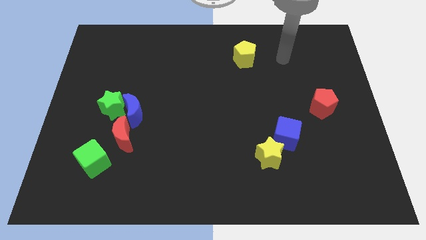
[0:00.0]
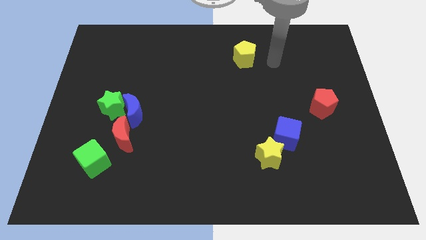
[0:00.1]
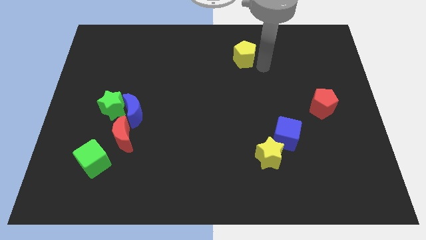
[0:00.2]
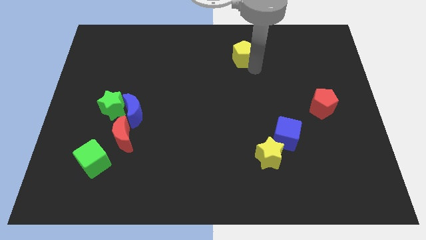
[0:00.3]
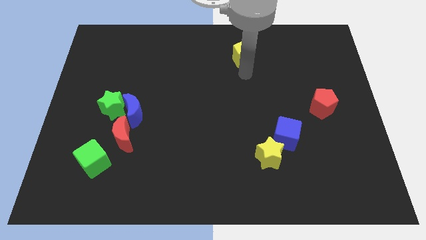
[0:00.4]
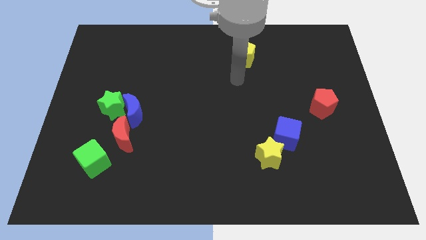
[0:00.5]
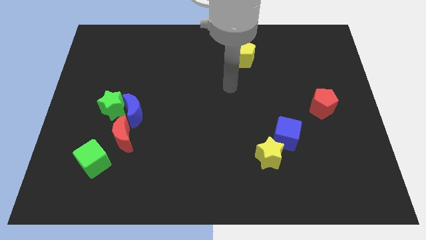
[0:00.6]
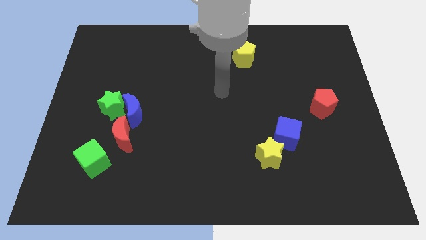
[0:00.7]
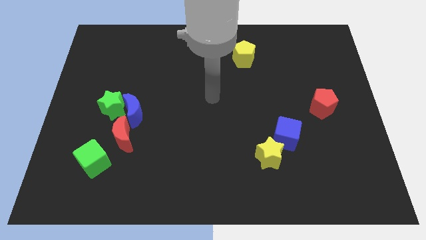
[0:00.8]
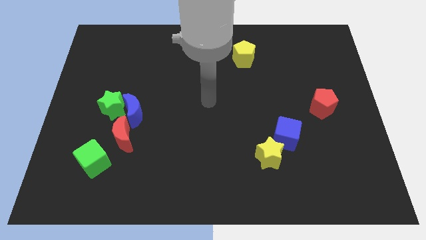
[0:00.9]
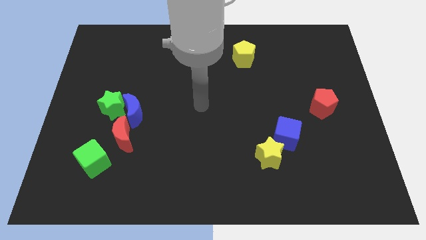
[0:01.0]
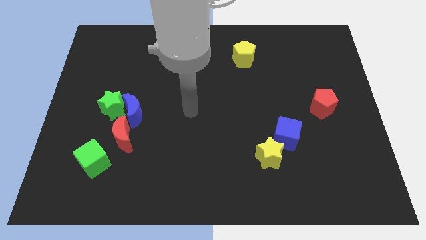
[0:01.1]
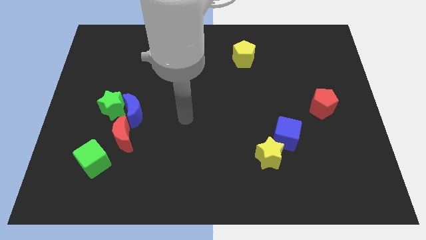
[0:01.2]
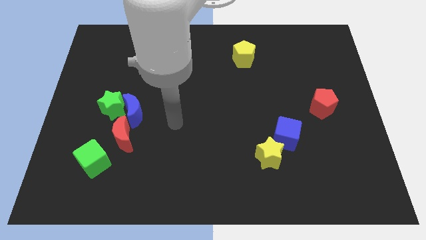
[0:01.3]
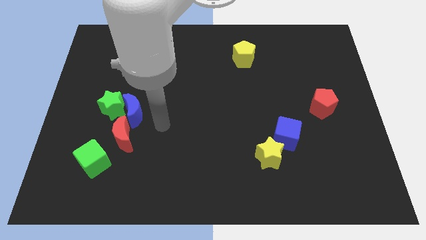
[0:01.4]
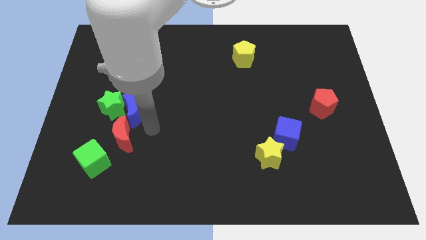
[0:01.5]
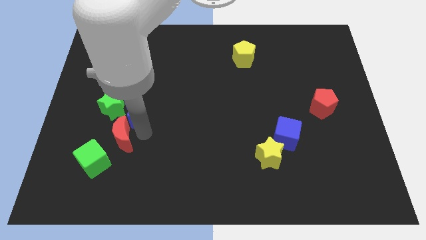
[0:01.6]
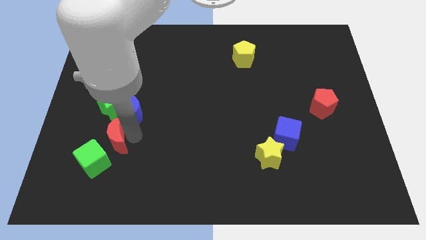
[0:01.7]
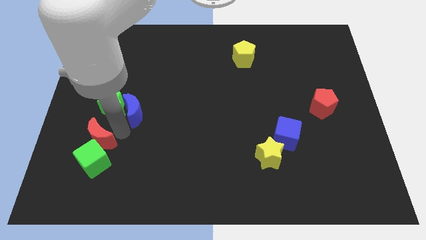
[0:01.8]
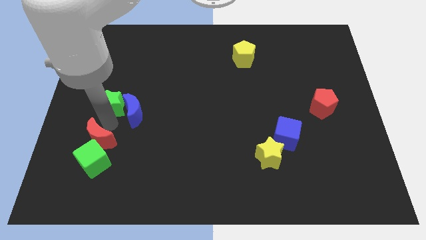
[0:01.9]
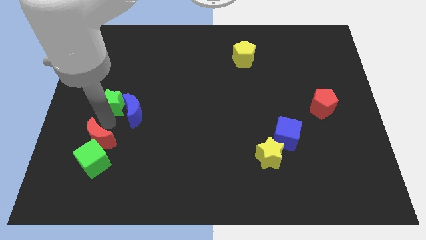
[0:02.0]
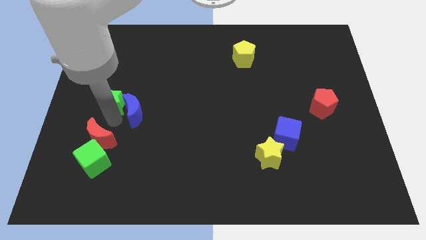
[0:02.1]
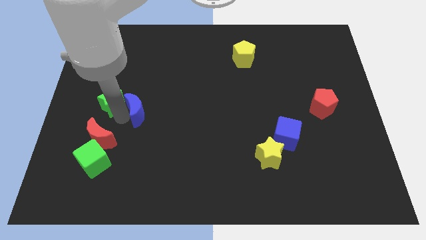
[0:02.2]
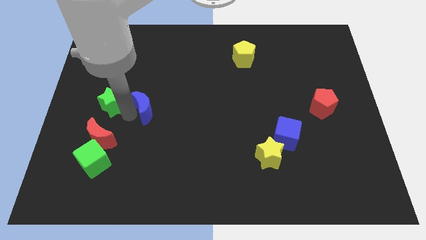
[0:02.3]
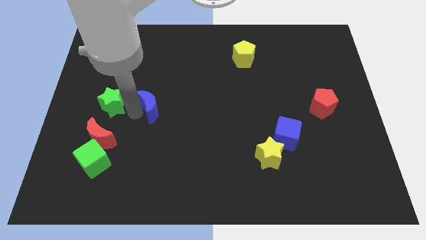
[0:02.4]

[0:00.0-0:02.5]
pull the blue moon apart from the green star and red moon

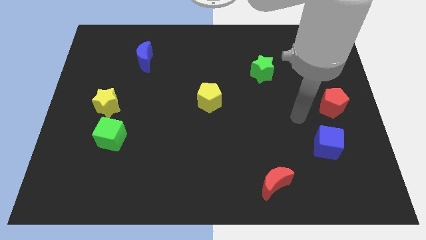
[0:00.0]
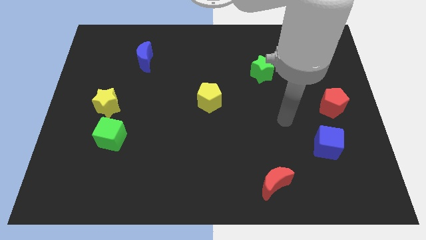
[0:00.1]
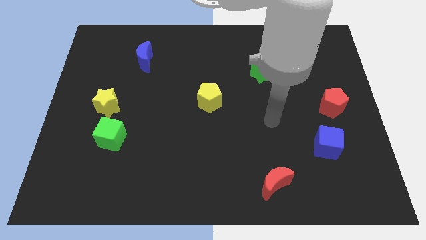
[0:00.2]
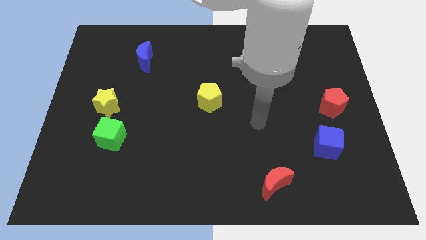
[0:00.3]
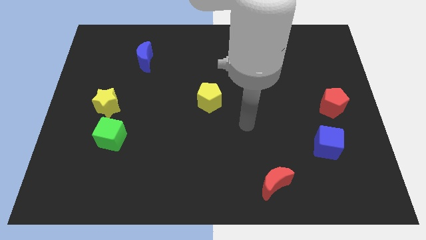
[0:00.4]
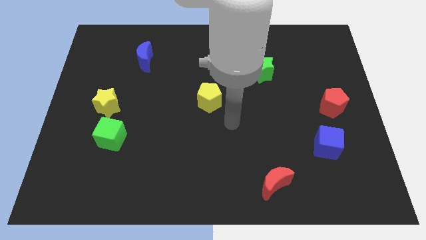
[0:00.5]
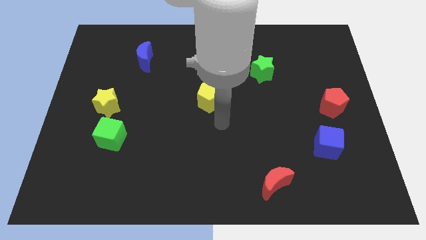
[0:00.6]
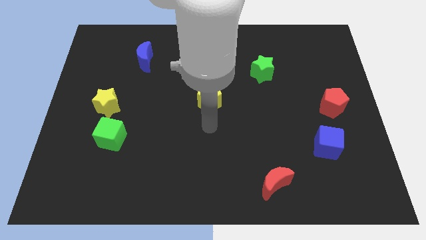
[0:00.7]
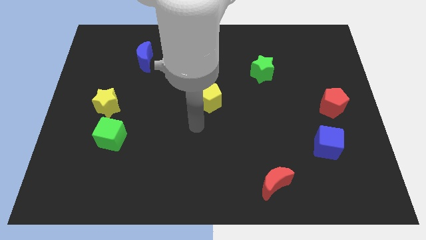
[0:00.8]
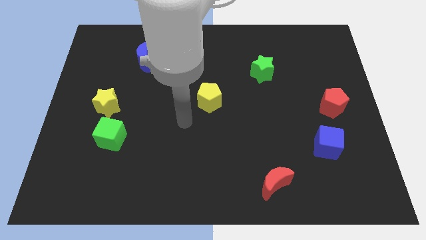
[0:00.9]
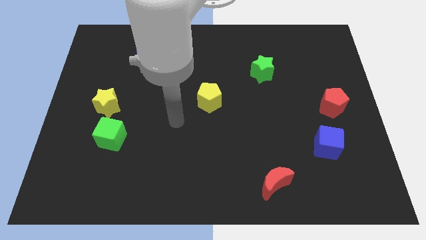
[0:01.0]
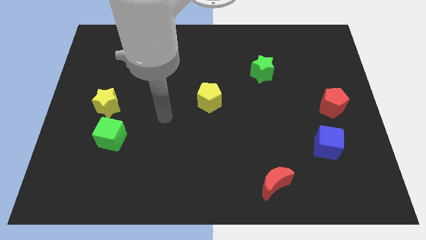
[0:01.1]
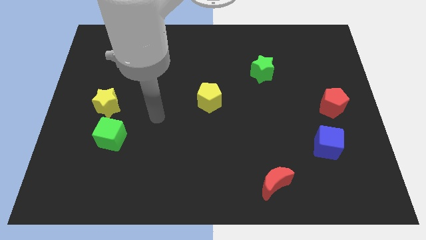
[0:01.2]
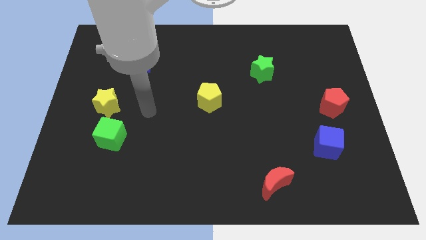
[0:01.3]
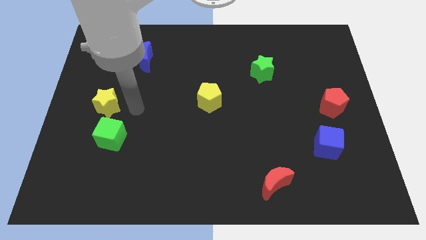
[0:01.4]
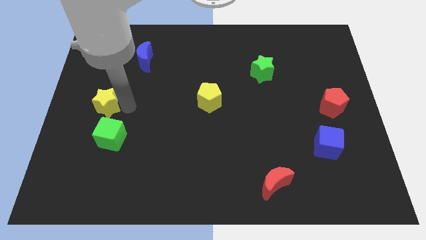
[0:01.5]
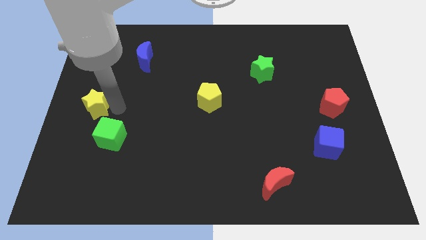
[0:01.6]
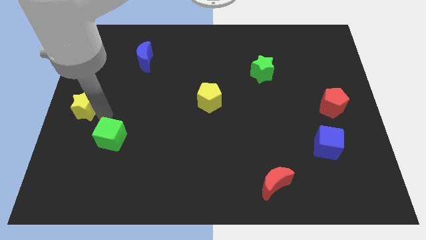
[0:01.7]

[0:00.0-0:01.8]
move the green cube away from the yellow star

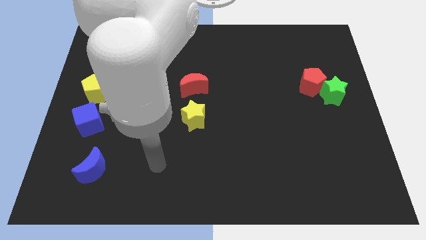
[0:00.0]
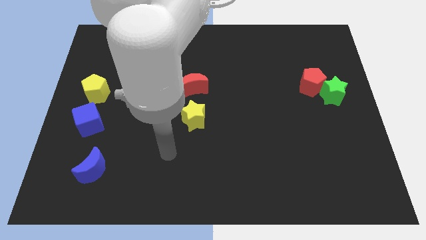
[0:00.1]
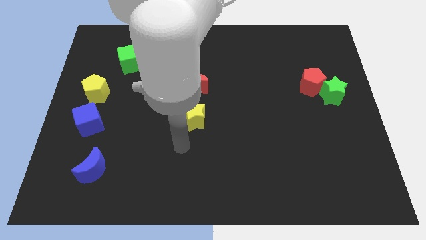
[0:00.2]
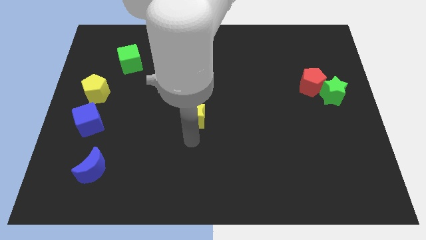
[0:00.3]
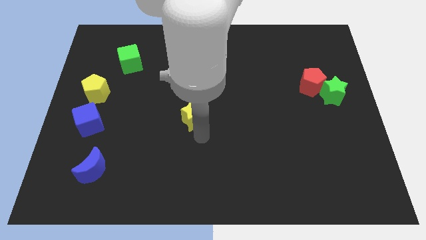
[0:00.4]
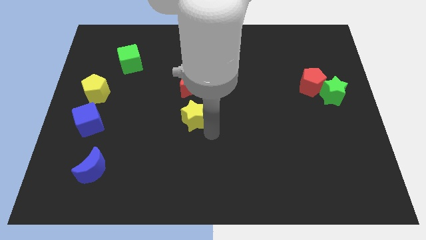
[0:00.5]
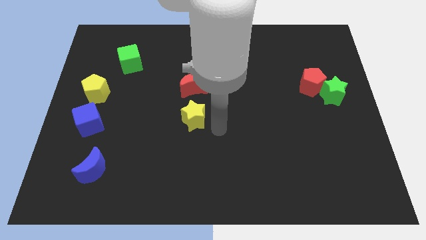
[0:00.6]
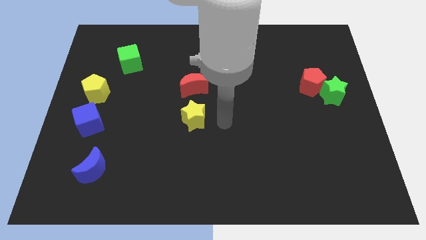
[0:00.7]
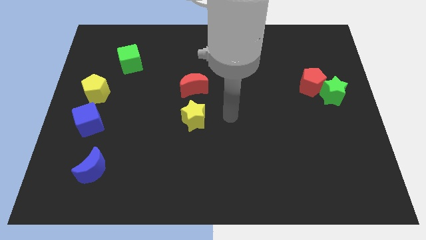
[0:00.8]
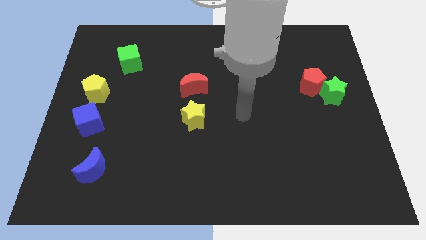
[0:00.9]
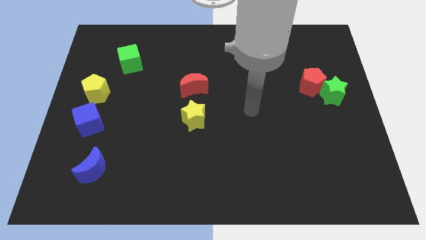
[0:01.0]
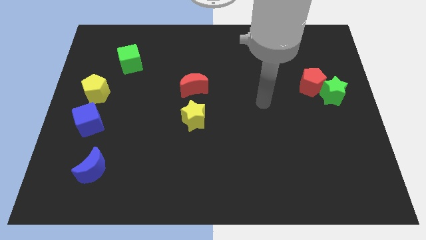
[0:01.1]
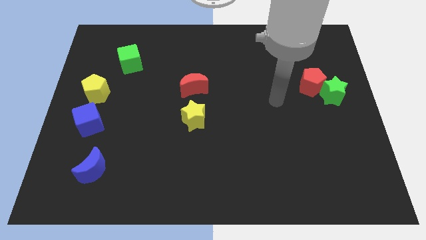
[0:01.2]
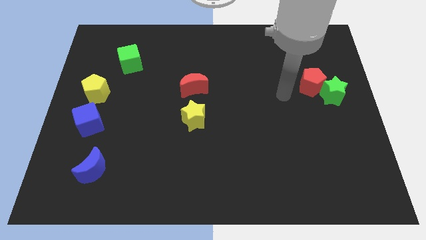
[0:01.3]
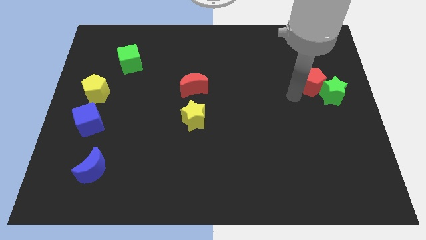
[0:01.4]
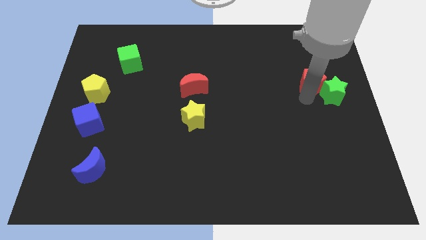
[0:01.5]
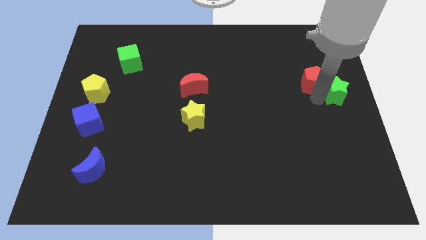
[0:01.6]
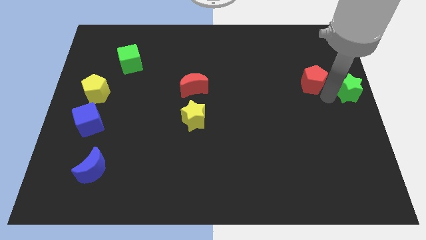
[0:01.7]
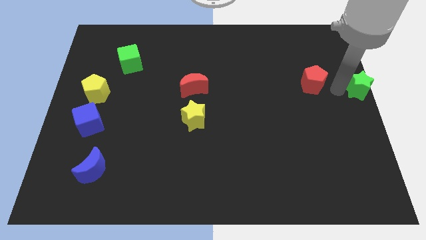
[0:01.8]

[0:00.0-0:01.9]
move the red pentagon away from the green star

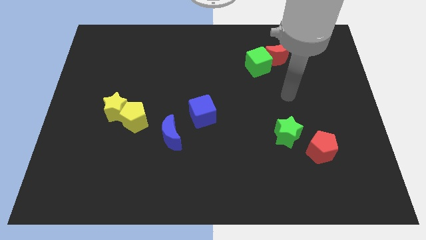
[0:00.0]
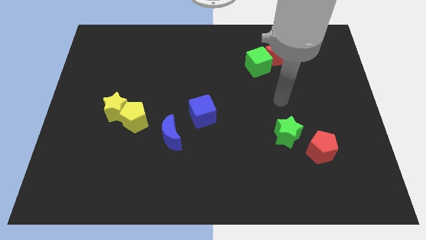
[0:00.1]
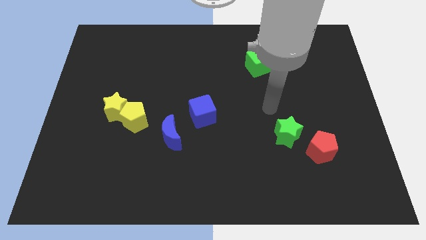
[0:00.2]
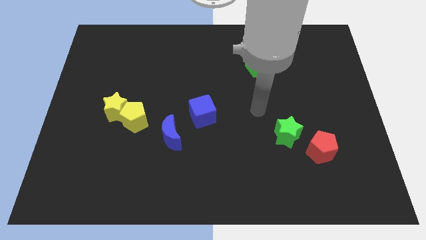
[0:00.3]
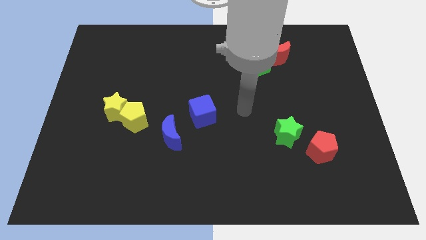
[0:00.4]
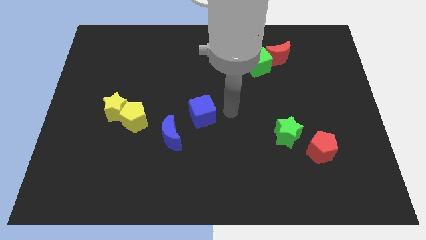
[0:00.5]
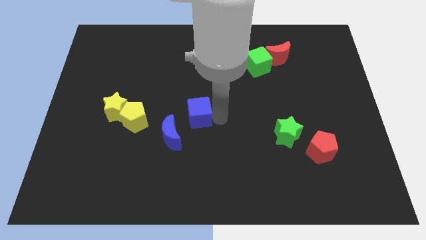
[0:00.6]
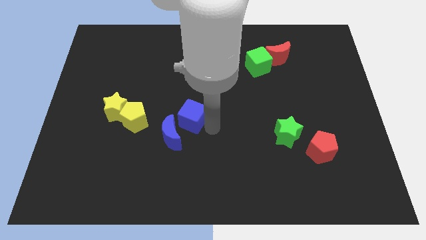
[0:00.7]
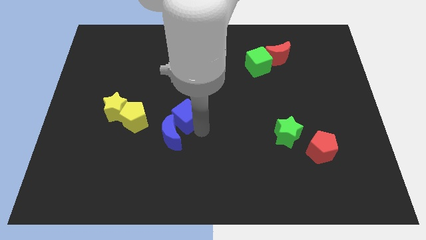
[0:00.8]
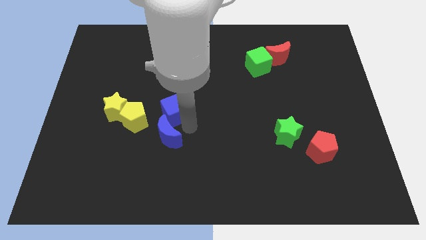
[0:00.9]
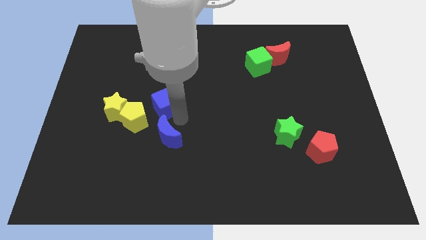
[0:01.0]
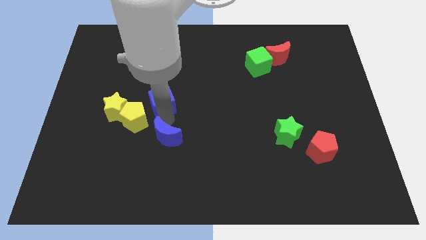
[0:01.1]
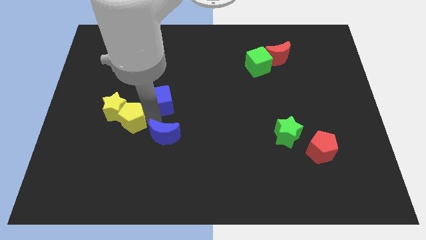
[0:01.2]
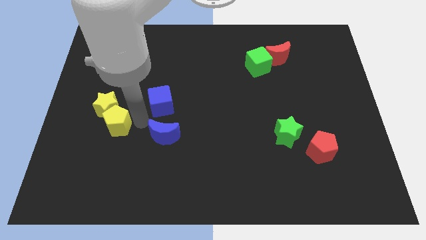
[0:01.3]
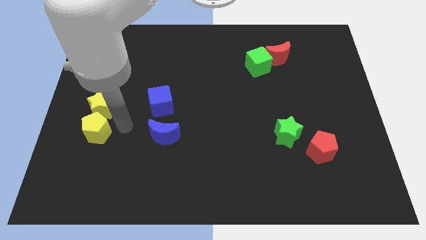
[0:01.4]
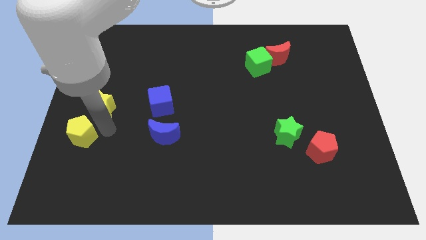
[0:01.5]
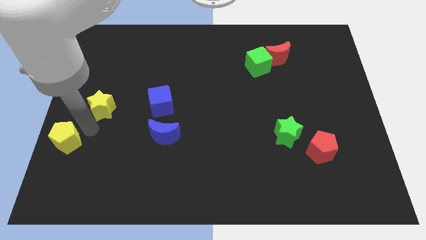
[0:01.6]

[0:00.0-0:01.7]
move the yellow star away from the yellow pentagon

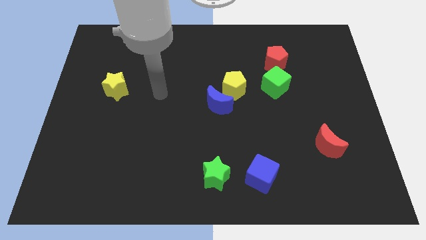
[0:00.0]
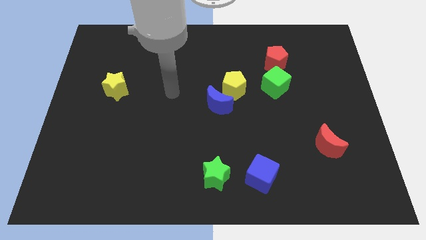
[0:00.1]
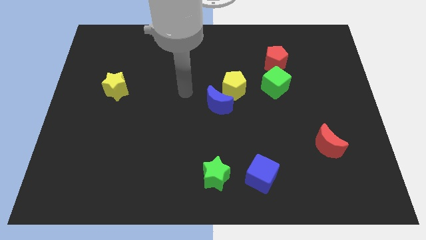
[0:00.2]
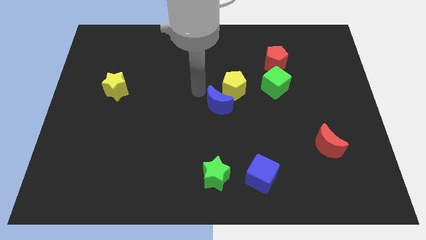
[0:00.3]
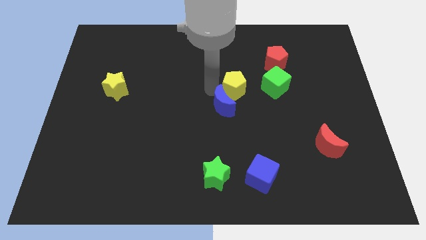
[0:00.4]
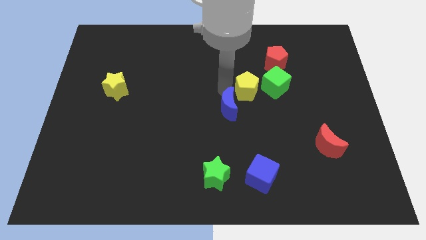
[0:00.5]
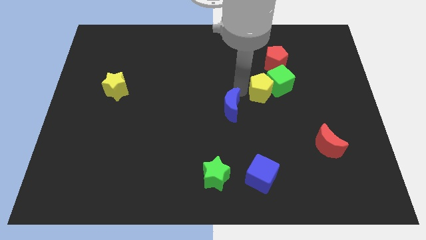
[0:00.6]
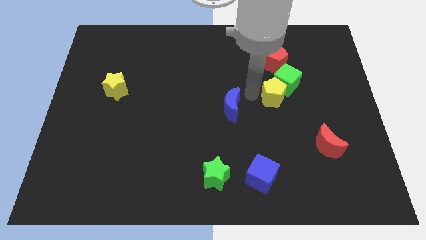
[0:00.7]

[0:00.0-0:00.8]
separate the blue moon from the yellow pentagon

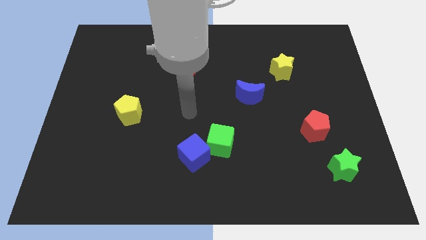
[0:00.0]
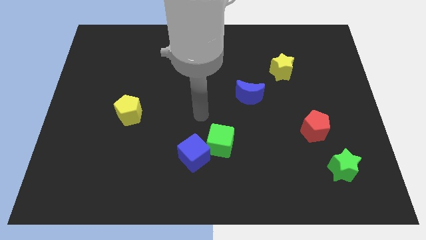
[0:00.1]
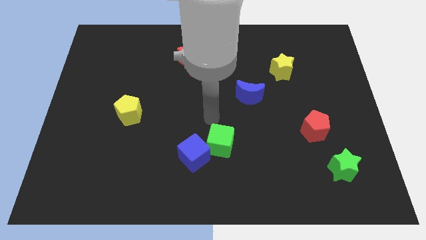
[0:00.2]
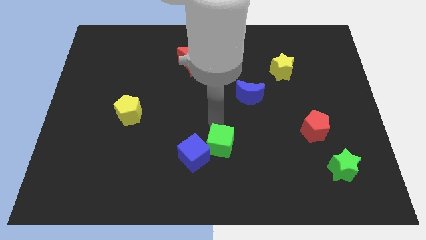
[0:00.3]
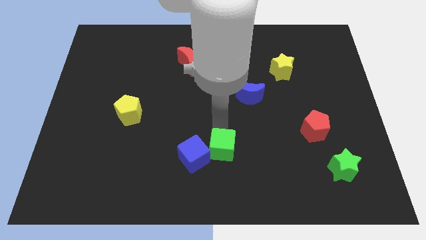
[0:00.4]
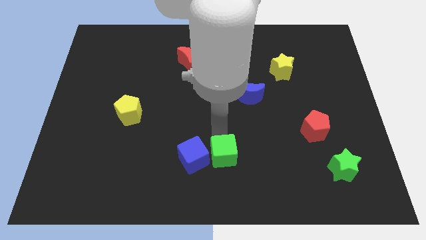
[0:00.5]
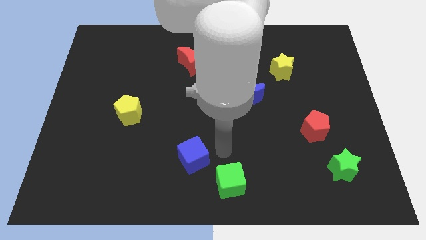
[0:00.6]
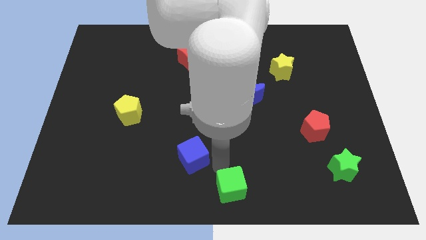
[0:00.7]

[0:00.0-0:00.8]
separate the blue cube from the green cube

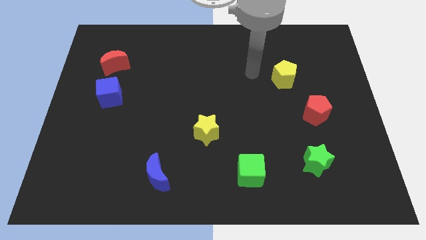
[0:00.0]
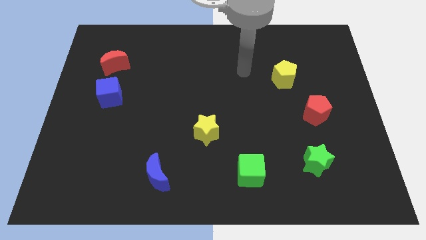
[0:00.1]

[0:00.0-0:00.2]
move the red moon away from the blue cube
